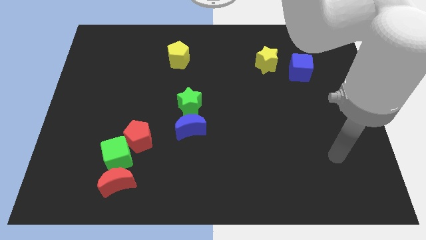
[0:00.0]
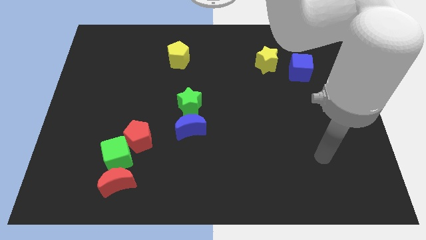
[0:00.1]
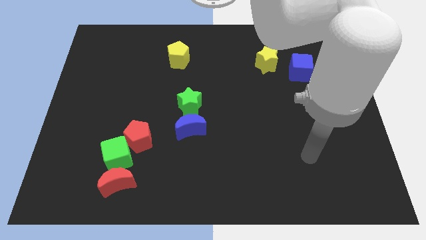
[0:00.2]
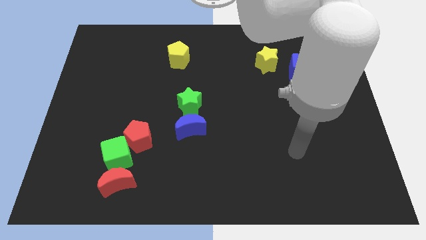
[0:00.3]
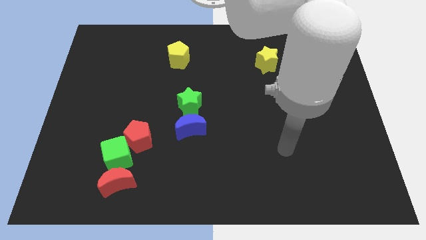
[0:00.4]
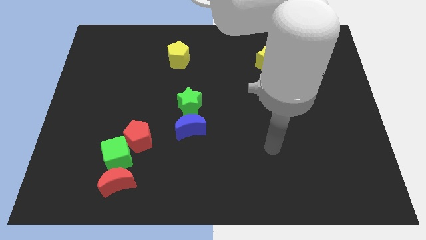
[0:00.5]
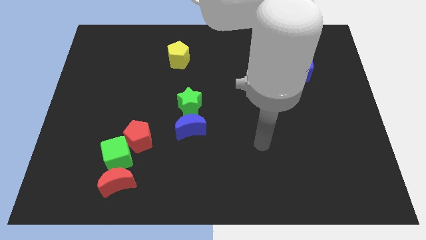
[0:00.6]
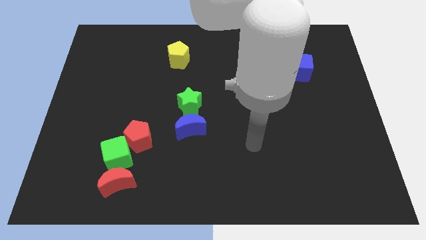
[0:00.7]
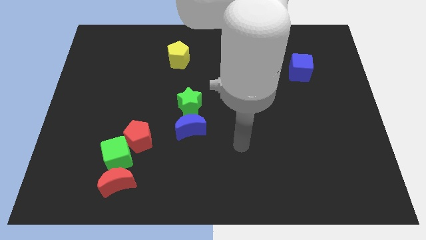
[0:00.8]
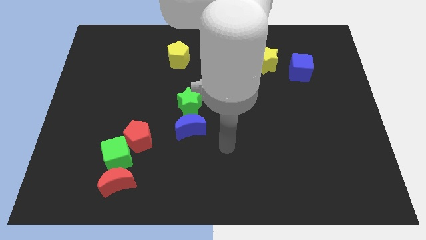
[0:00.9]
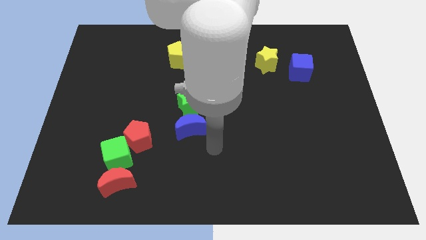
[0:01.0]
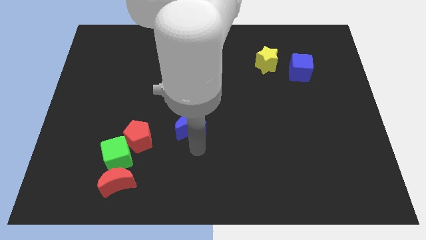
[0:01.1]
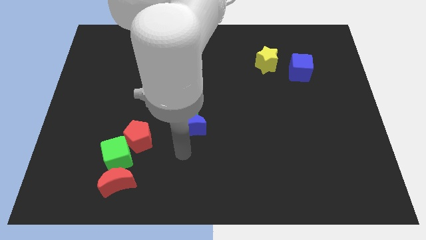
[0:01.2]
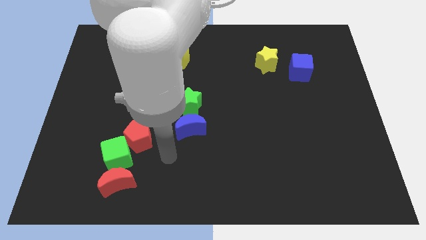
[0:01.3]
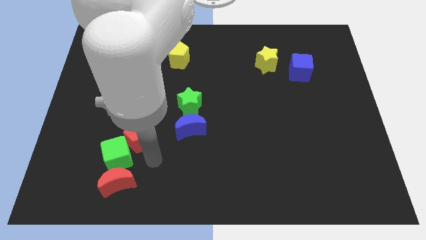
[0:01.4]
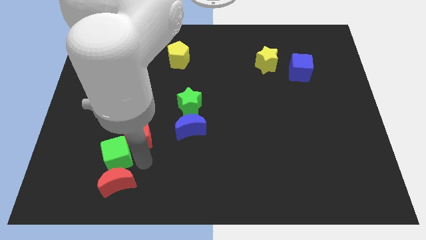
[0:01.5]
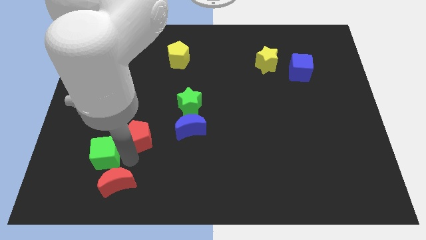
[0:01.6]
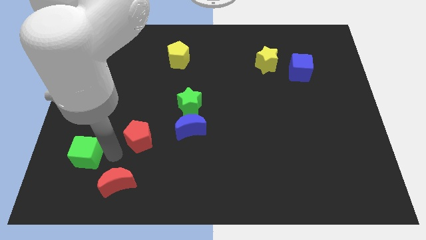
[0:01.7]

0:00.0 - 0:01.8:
pull the red pentagon apart from the green cube

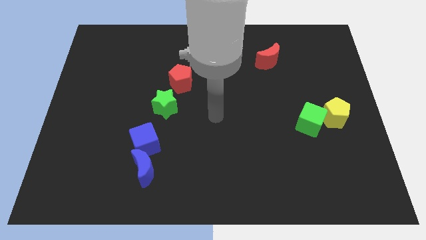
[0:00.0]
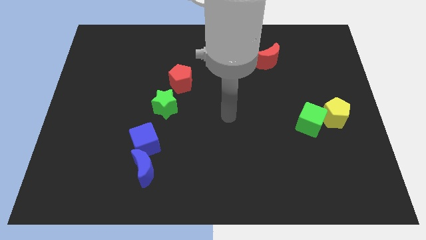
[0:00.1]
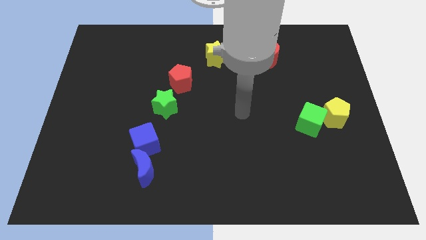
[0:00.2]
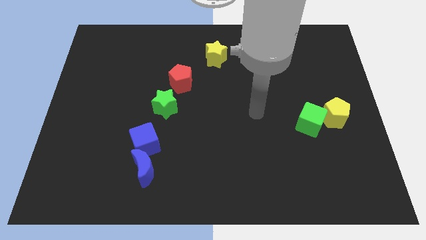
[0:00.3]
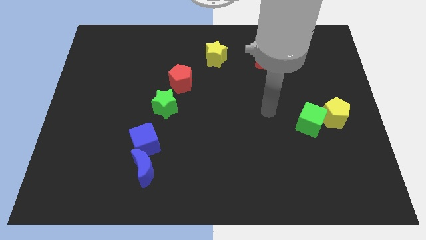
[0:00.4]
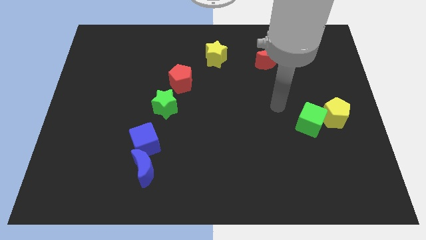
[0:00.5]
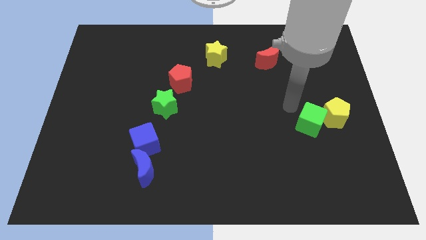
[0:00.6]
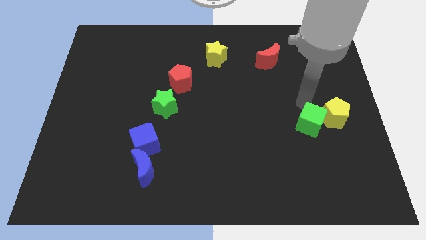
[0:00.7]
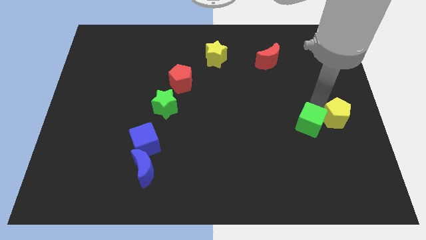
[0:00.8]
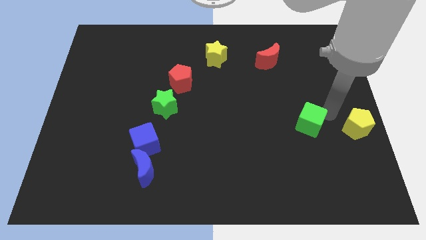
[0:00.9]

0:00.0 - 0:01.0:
separate the green cube from the yellow pentagon

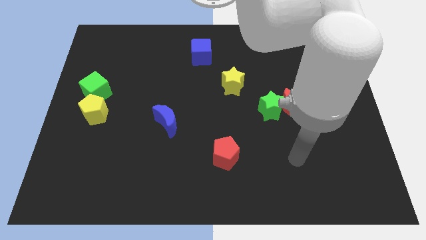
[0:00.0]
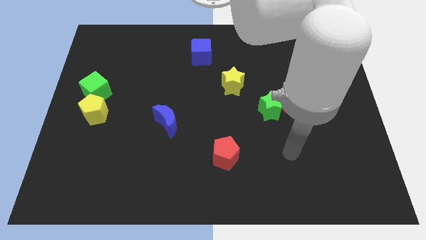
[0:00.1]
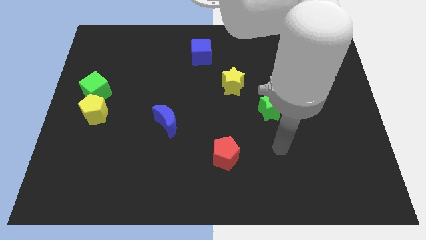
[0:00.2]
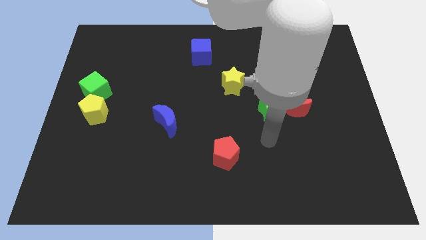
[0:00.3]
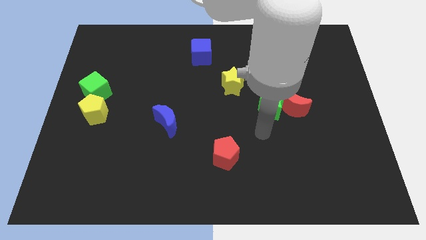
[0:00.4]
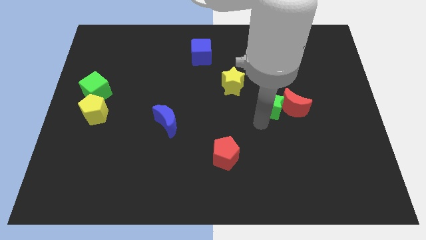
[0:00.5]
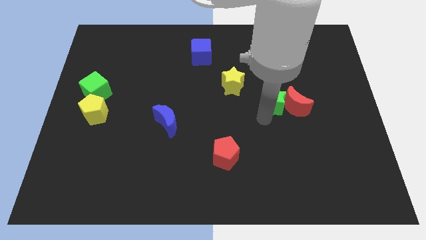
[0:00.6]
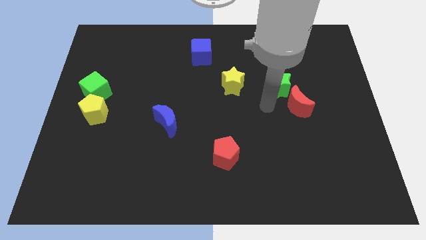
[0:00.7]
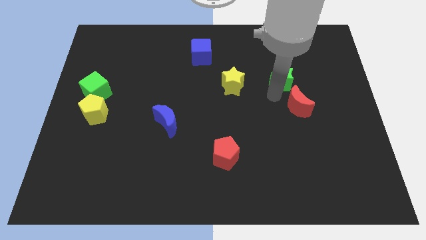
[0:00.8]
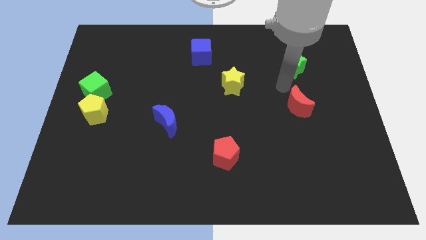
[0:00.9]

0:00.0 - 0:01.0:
separate the red moon from the green star

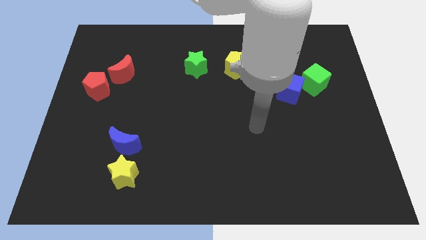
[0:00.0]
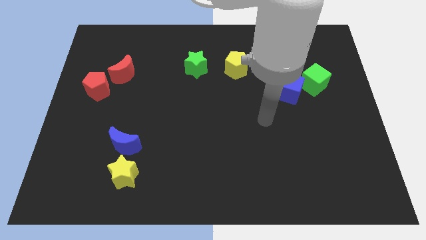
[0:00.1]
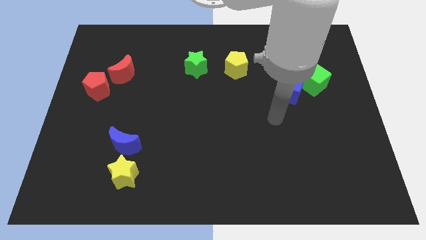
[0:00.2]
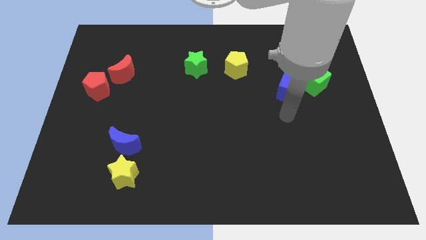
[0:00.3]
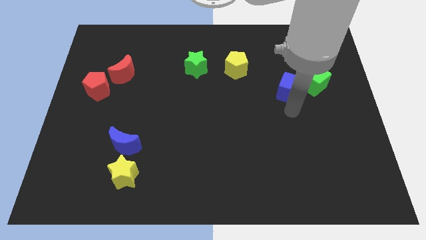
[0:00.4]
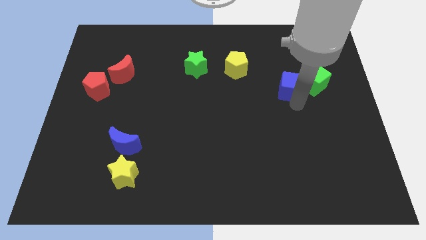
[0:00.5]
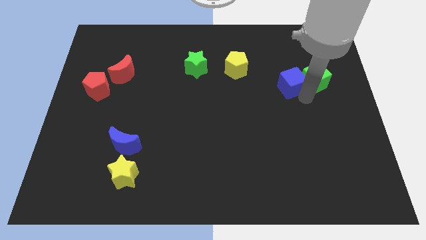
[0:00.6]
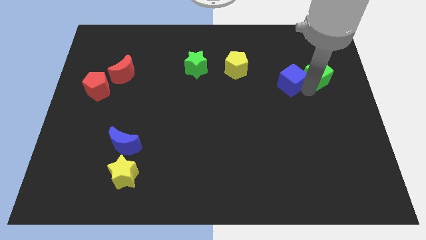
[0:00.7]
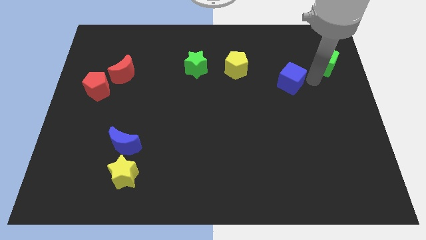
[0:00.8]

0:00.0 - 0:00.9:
pull the blue cube apart from the green cube

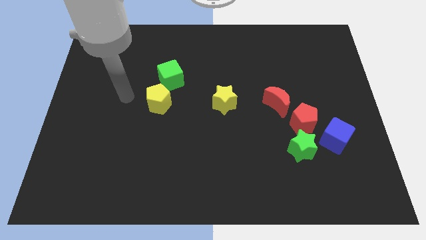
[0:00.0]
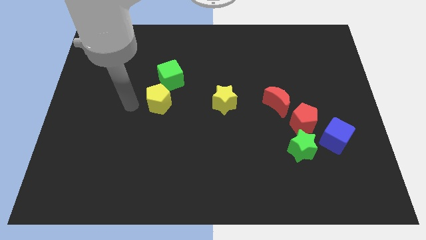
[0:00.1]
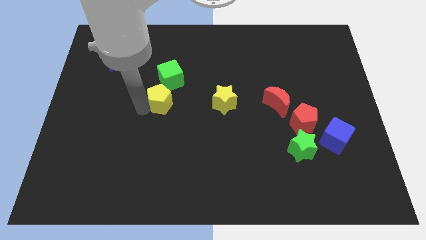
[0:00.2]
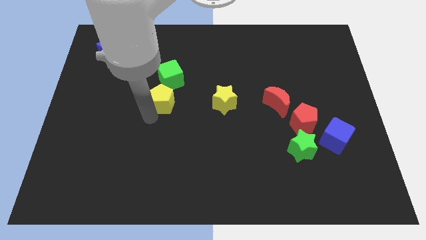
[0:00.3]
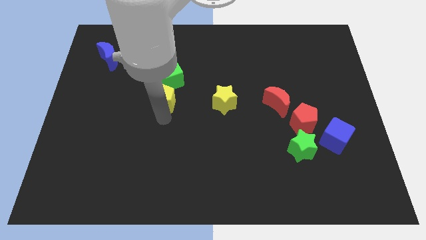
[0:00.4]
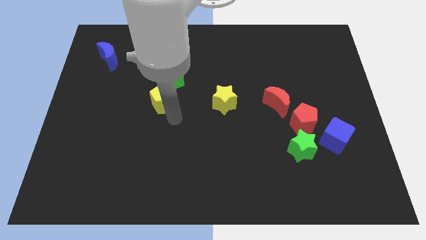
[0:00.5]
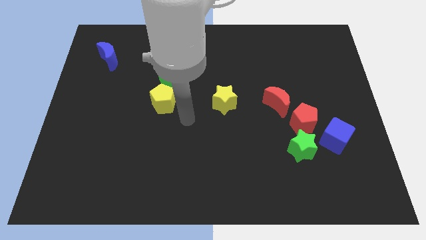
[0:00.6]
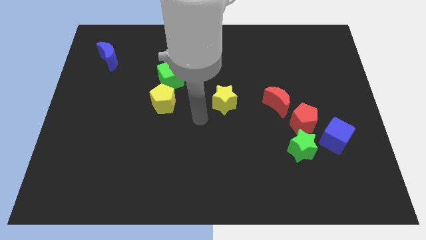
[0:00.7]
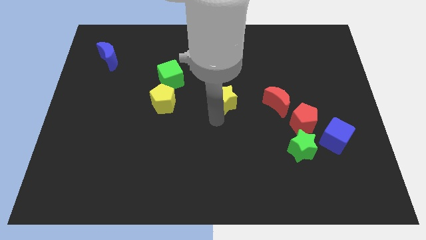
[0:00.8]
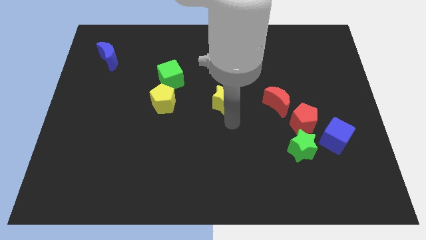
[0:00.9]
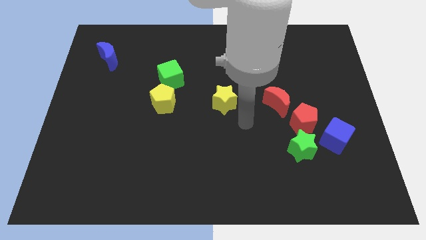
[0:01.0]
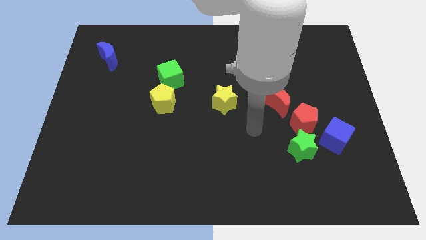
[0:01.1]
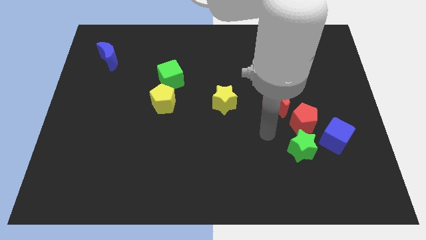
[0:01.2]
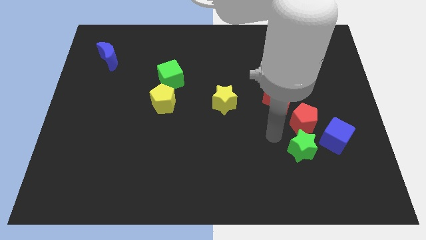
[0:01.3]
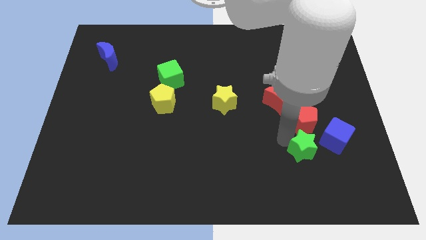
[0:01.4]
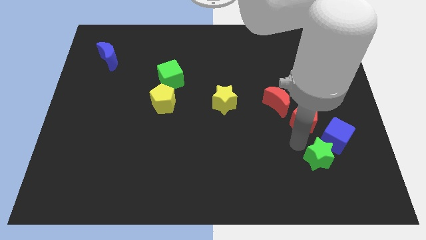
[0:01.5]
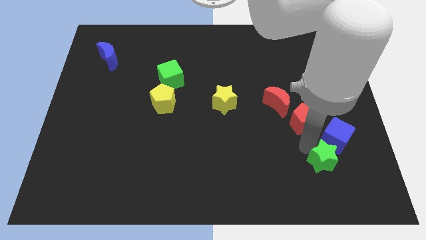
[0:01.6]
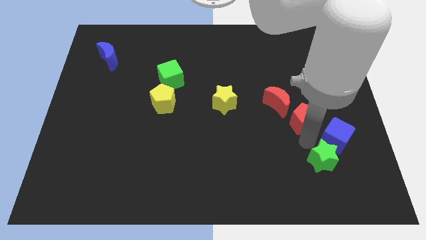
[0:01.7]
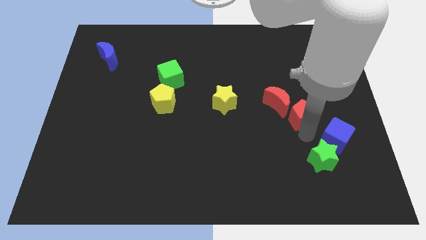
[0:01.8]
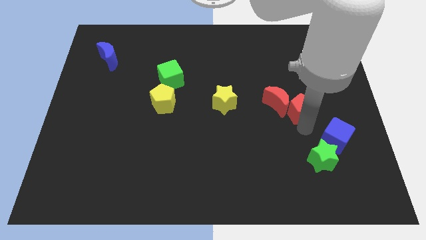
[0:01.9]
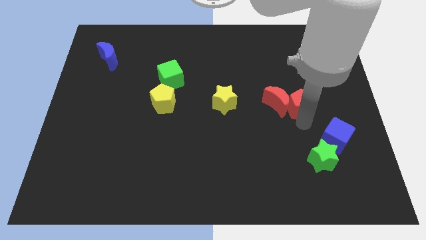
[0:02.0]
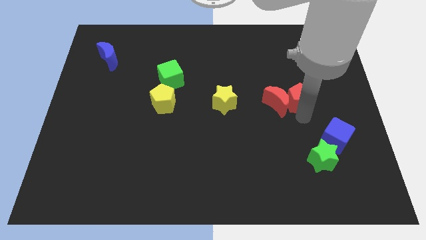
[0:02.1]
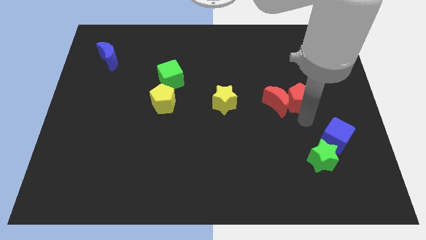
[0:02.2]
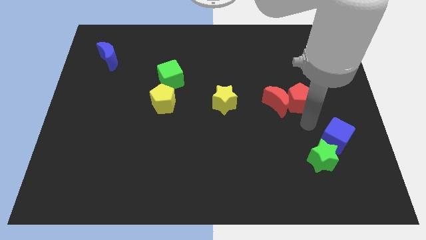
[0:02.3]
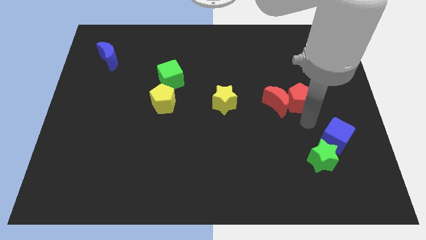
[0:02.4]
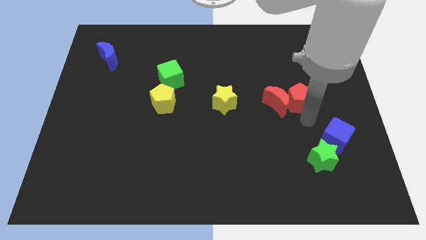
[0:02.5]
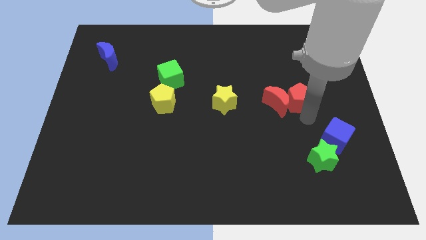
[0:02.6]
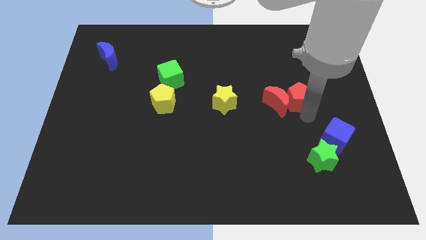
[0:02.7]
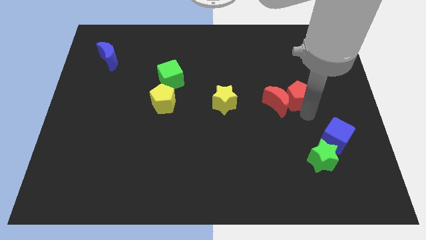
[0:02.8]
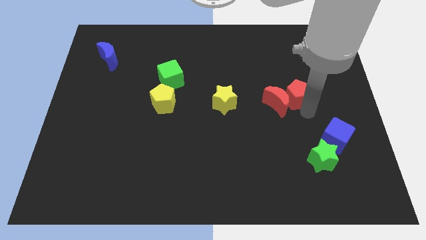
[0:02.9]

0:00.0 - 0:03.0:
pull the red pentagon apart from the green star, red moon, and blue cube

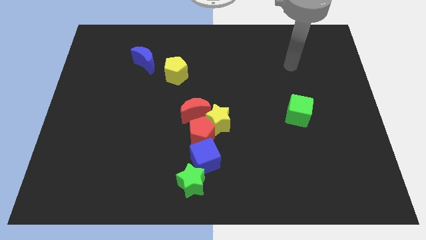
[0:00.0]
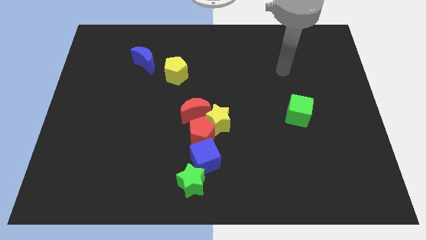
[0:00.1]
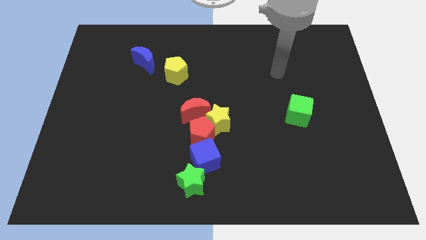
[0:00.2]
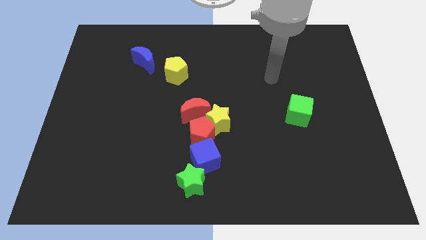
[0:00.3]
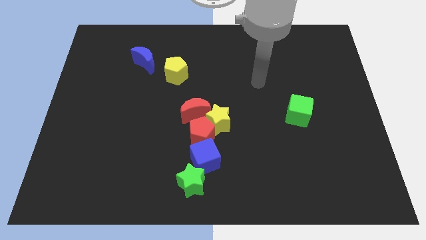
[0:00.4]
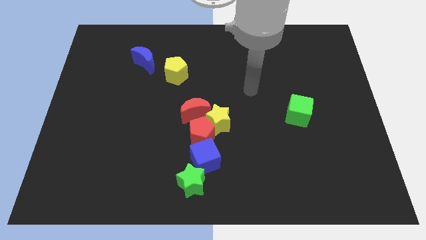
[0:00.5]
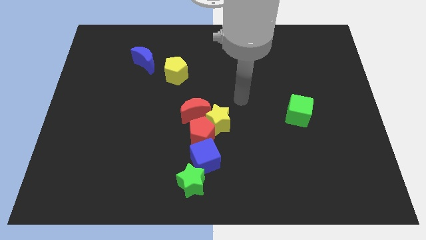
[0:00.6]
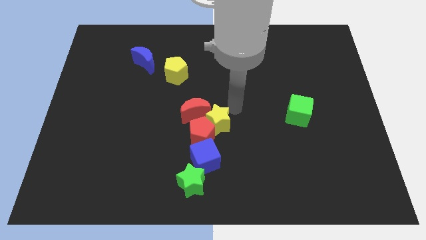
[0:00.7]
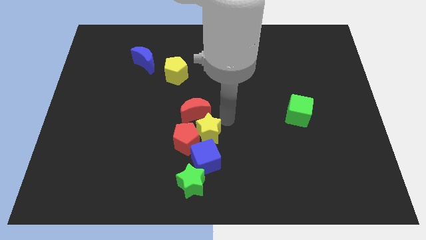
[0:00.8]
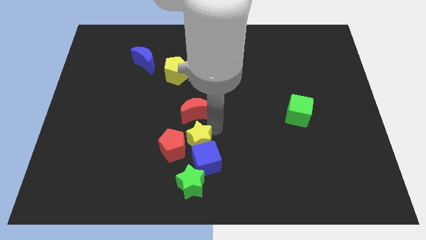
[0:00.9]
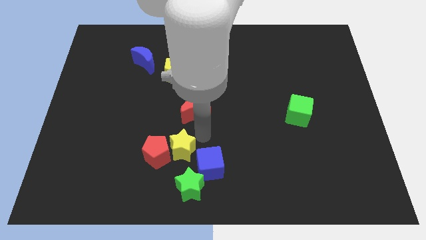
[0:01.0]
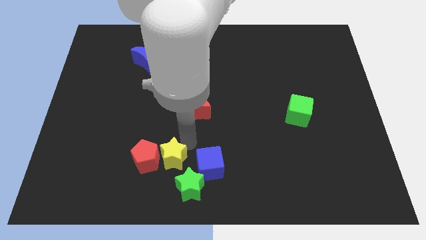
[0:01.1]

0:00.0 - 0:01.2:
pull the red pentagon apart from the yellow star, blue cube, and red moon

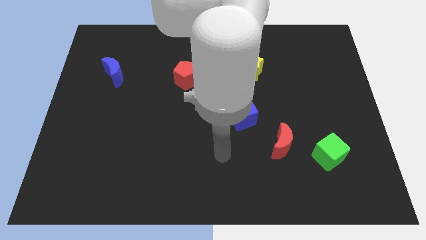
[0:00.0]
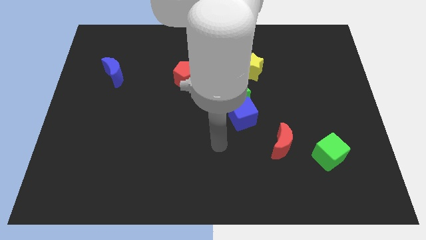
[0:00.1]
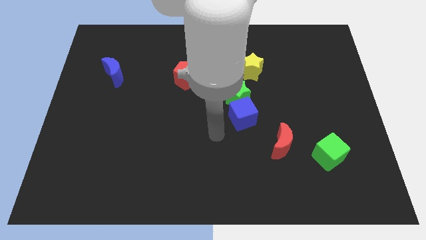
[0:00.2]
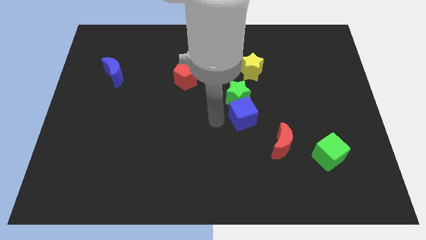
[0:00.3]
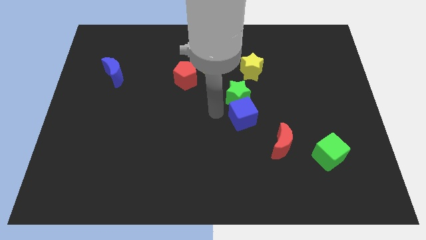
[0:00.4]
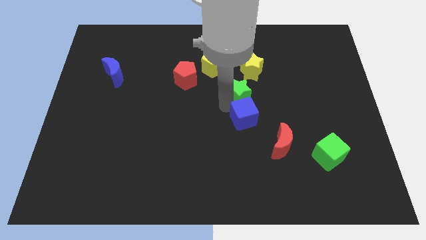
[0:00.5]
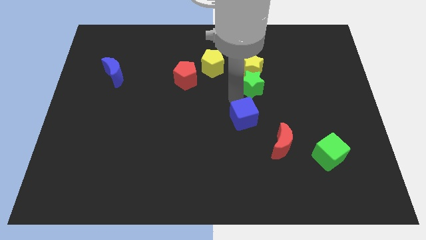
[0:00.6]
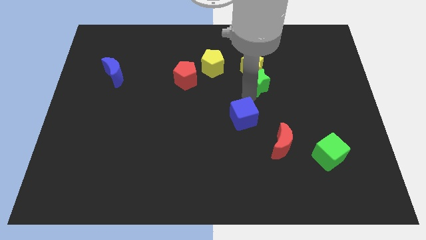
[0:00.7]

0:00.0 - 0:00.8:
pull the blue cube apart from the green star
